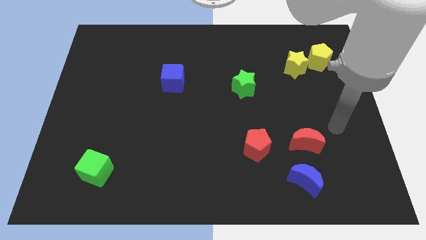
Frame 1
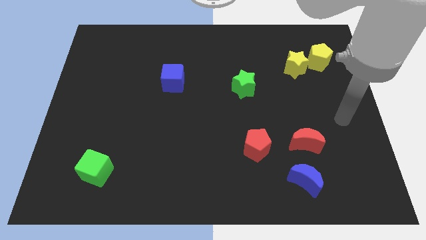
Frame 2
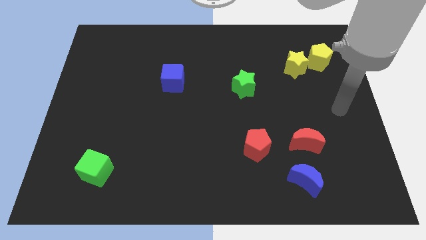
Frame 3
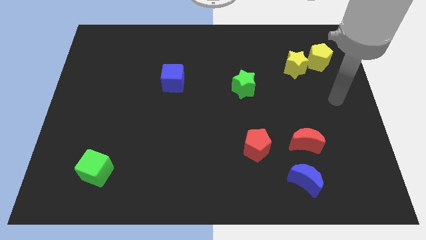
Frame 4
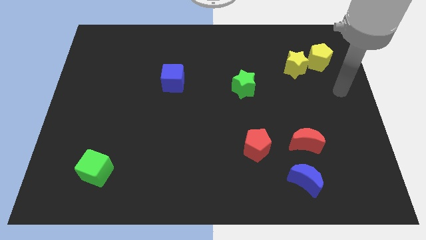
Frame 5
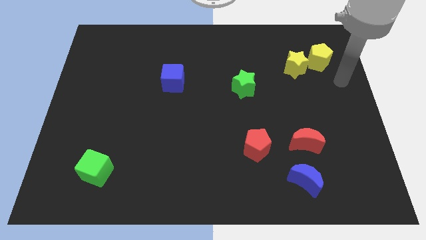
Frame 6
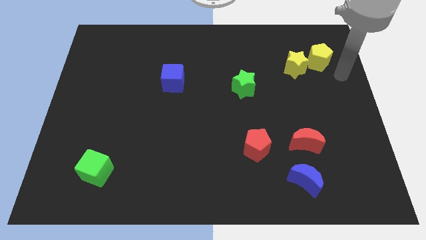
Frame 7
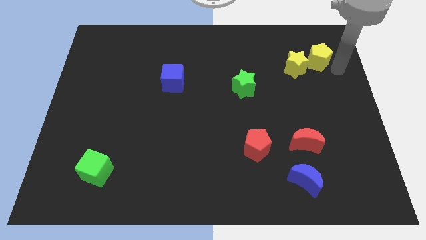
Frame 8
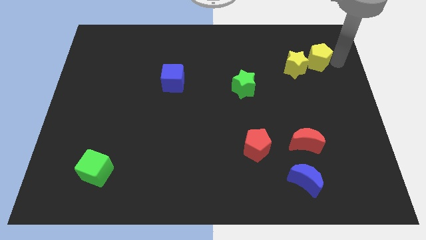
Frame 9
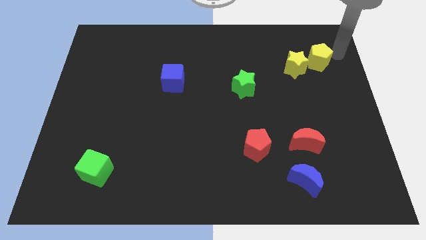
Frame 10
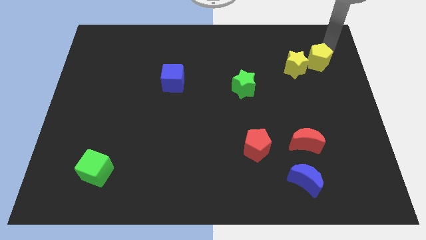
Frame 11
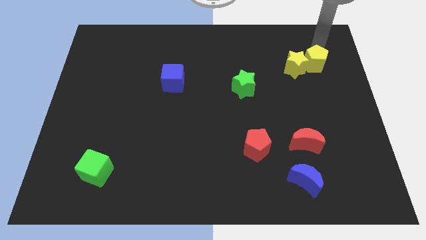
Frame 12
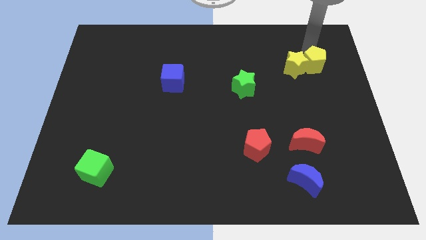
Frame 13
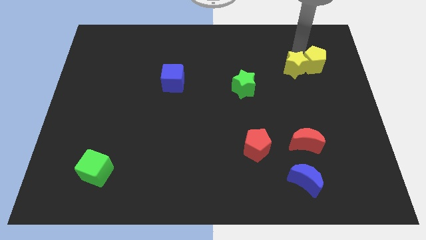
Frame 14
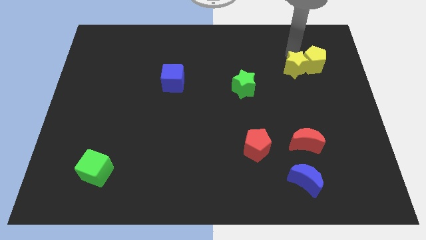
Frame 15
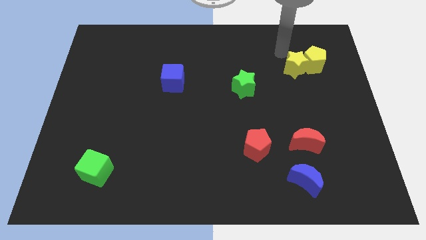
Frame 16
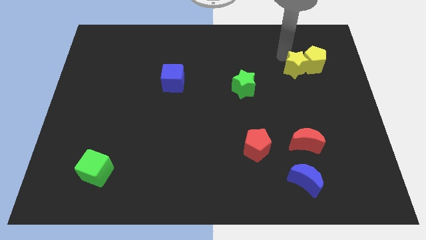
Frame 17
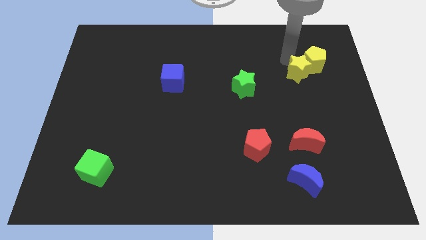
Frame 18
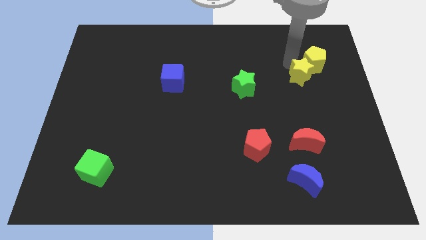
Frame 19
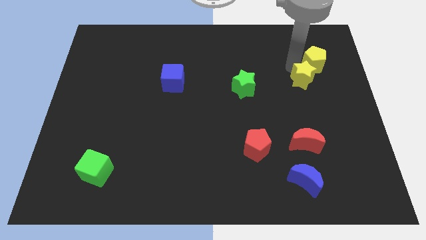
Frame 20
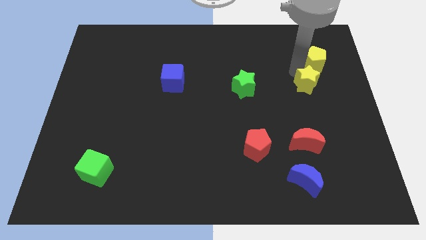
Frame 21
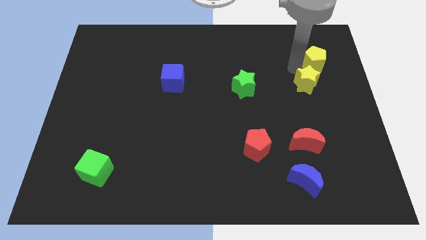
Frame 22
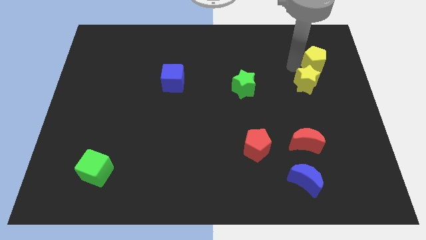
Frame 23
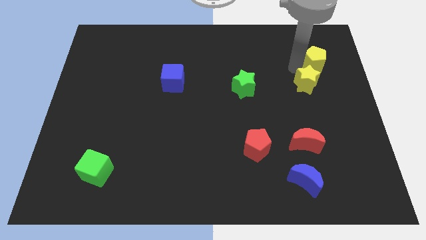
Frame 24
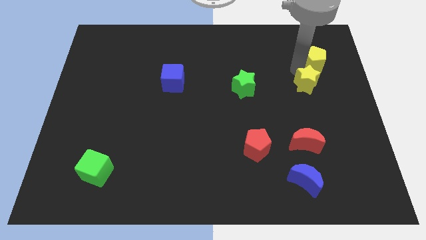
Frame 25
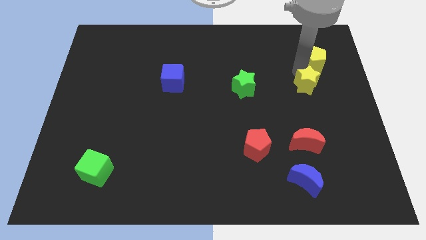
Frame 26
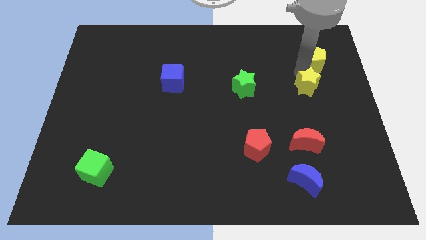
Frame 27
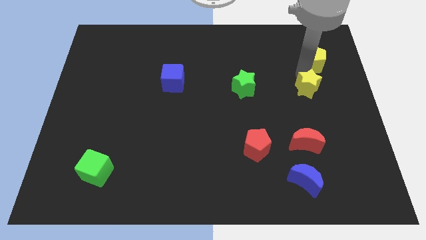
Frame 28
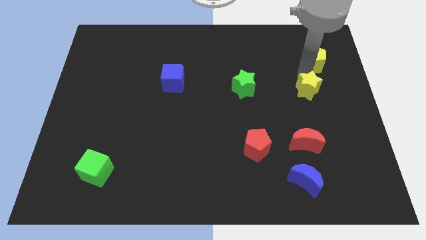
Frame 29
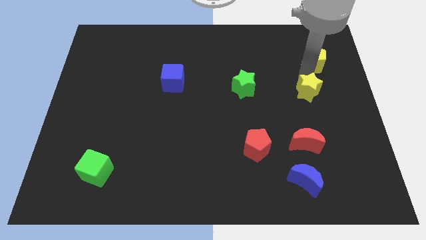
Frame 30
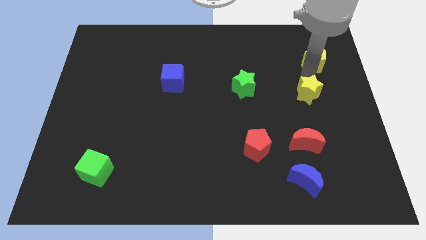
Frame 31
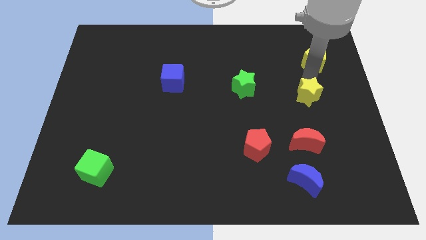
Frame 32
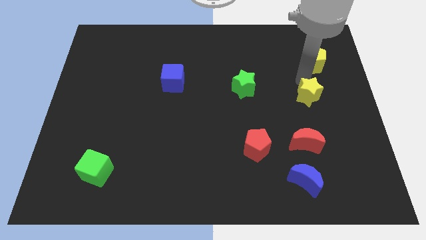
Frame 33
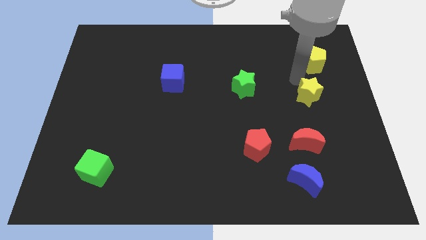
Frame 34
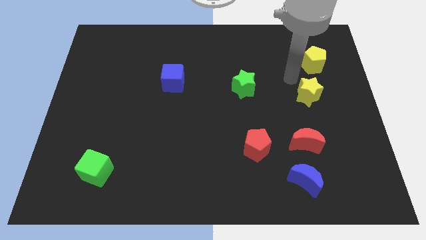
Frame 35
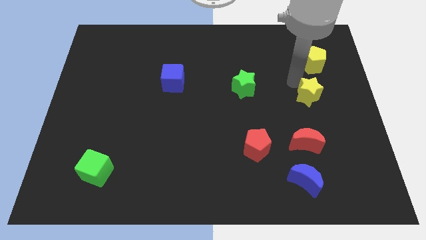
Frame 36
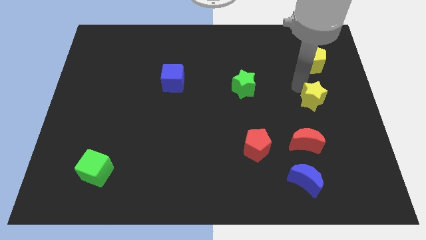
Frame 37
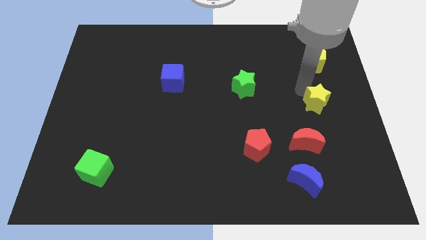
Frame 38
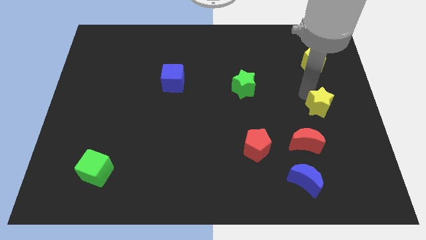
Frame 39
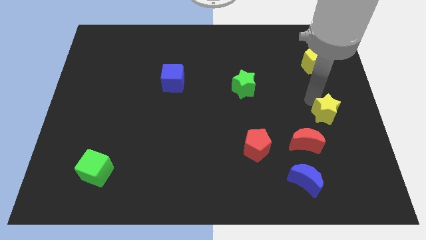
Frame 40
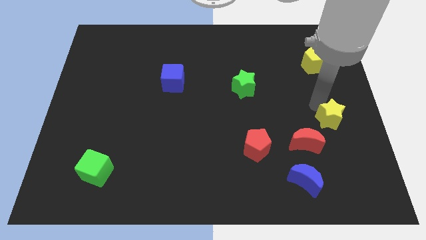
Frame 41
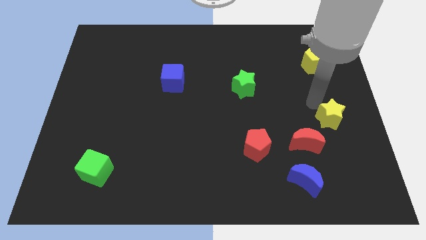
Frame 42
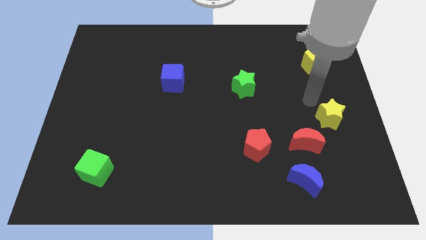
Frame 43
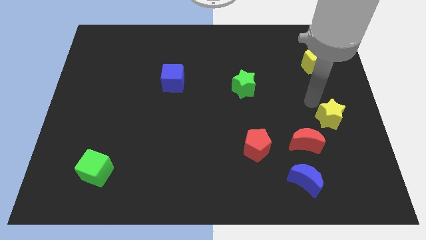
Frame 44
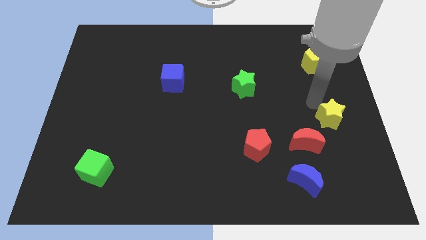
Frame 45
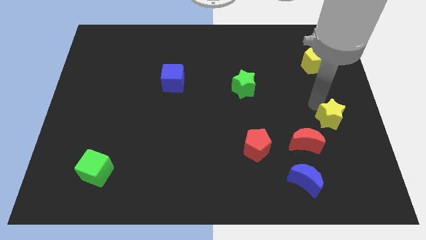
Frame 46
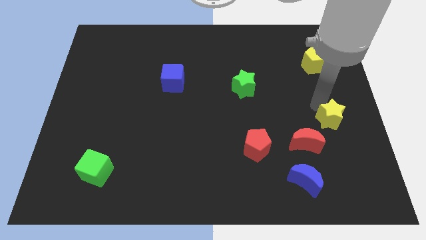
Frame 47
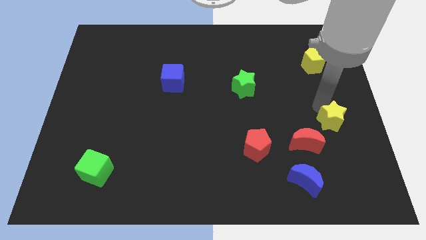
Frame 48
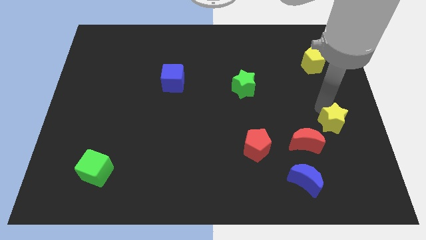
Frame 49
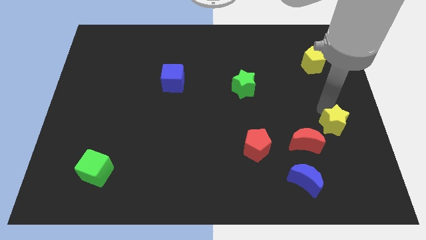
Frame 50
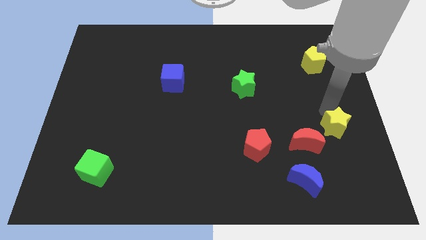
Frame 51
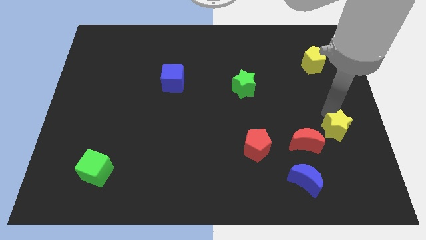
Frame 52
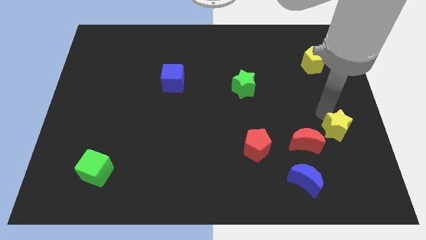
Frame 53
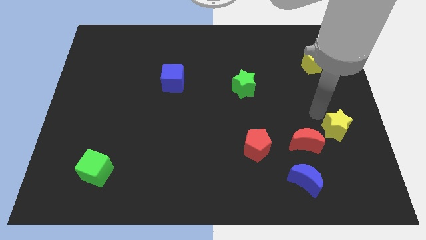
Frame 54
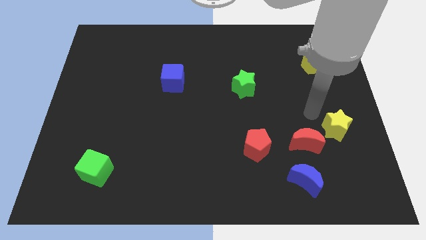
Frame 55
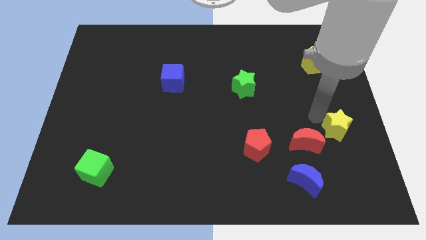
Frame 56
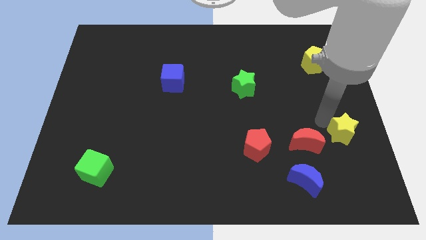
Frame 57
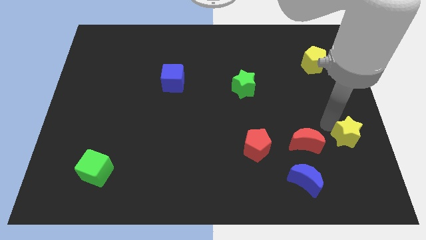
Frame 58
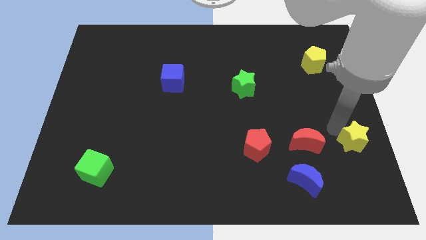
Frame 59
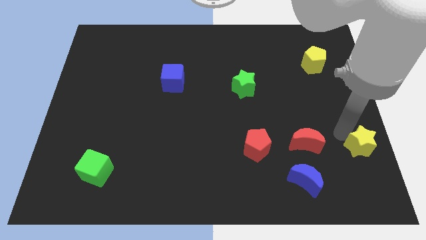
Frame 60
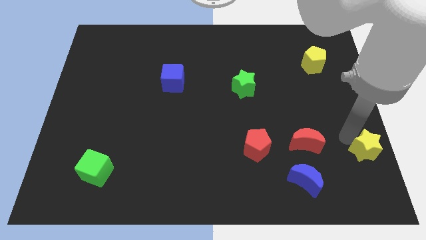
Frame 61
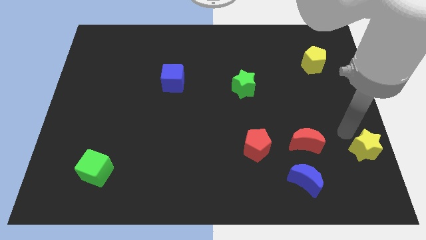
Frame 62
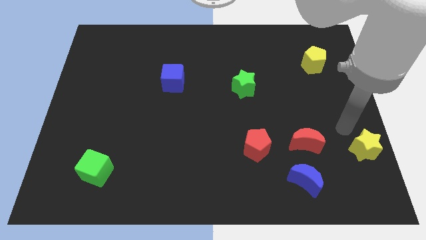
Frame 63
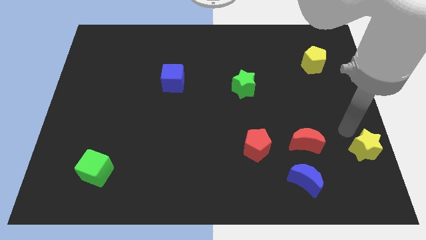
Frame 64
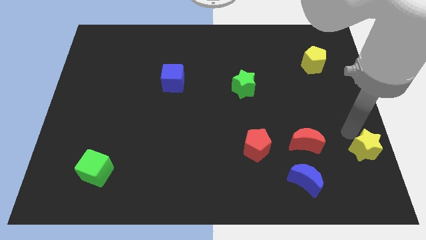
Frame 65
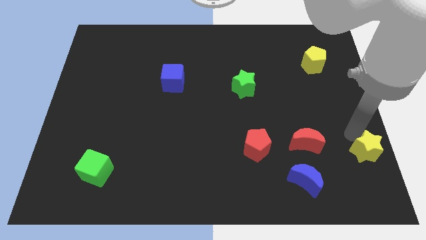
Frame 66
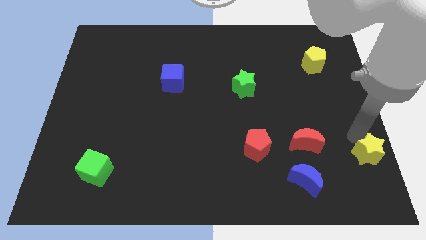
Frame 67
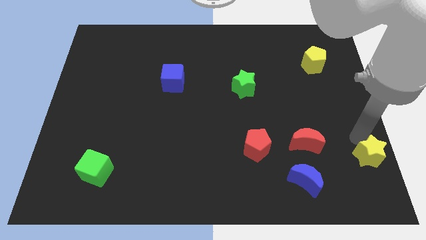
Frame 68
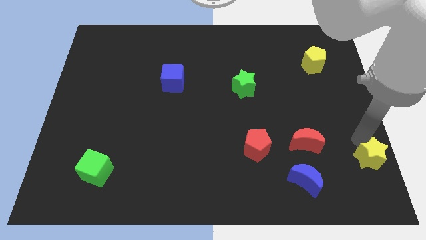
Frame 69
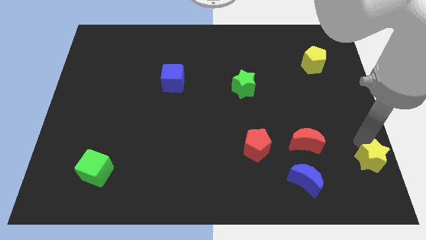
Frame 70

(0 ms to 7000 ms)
slide the yellow star to the bottom right corner
